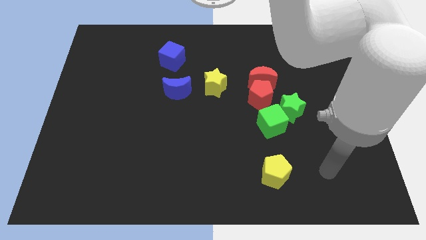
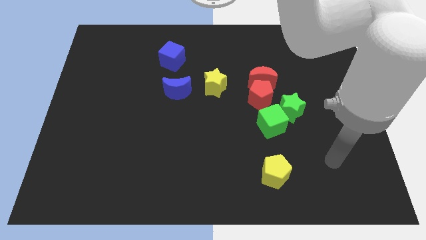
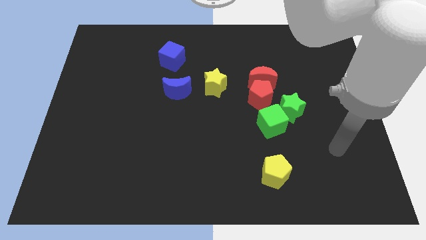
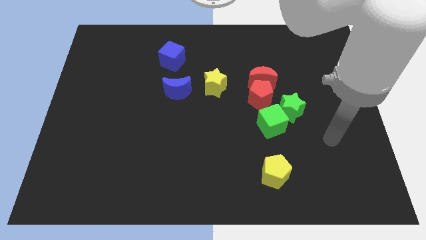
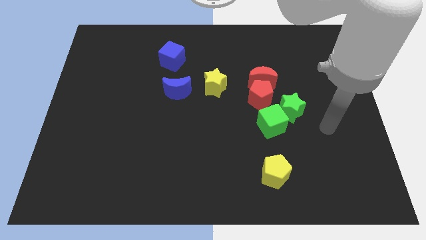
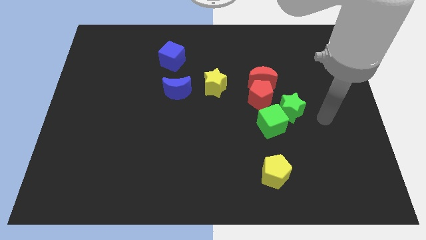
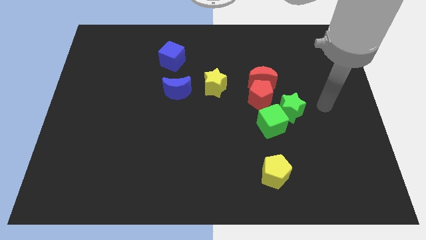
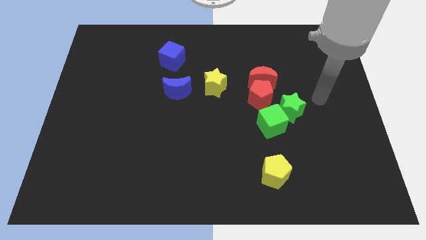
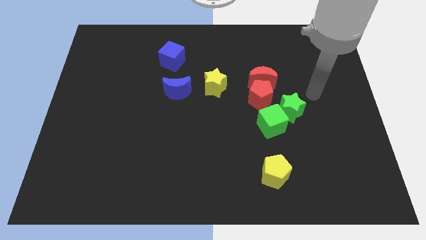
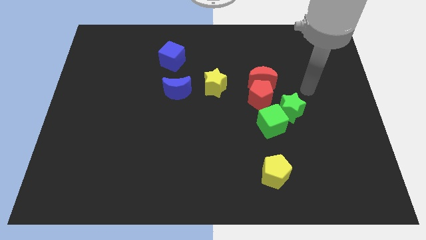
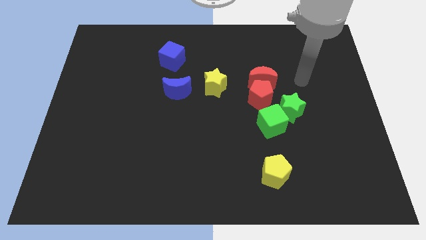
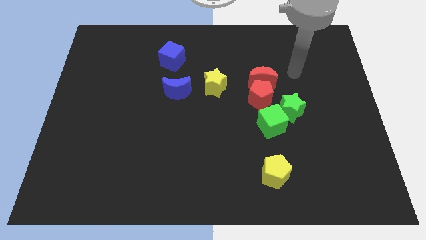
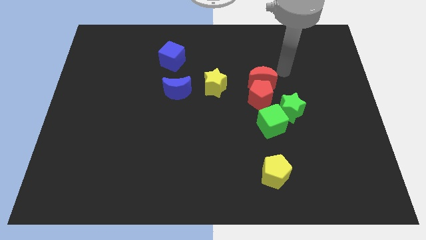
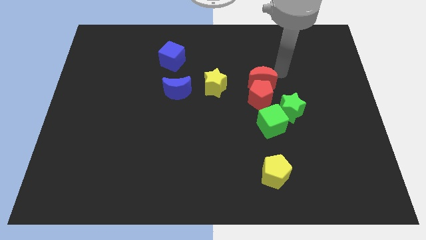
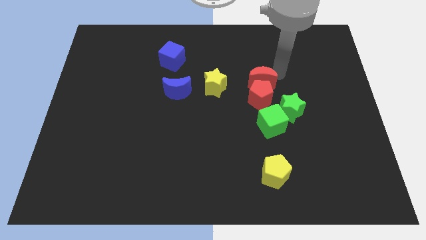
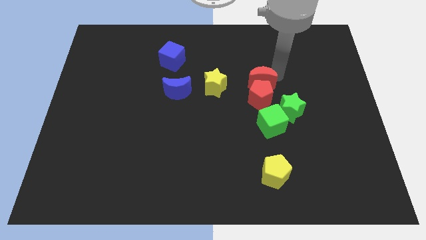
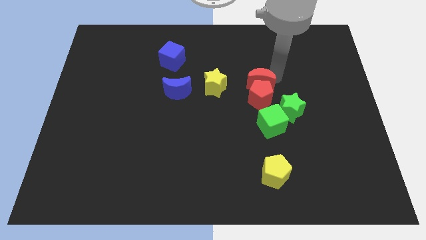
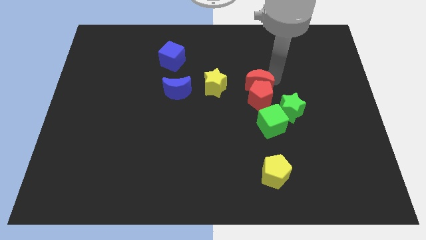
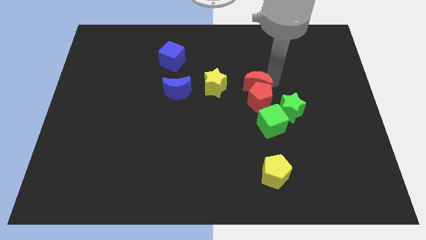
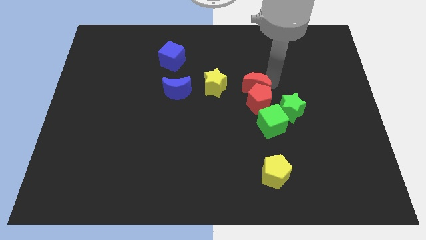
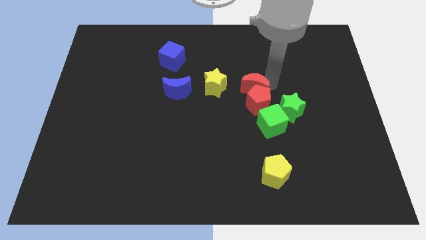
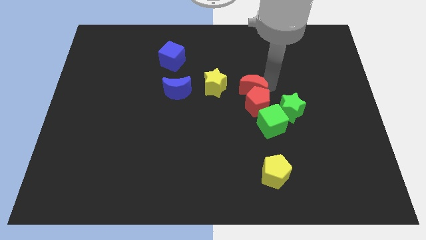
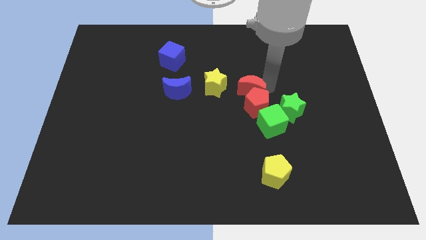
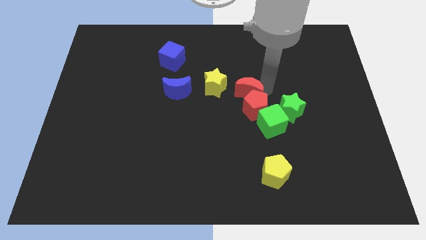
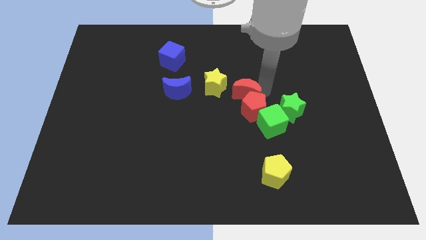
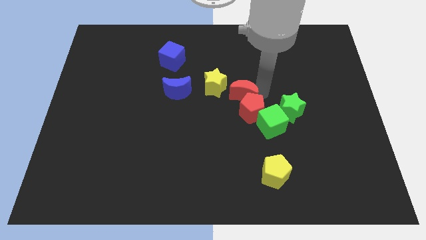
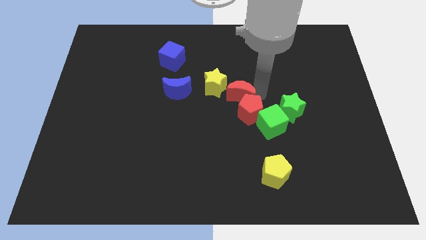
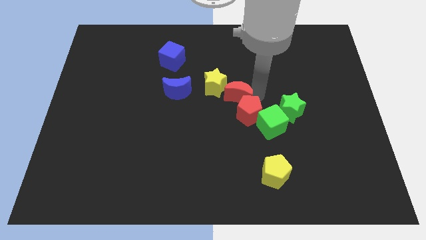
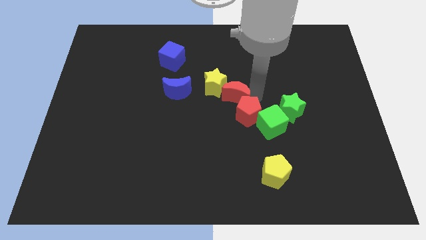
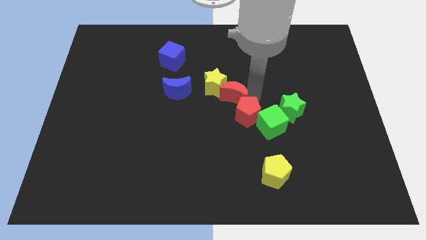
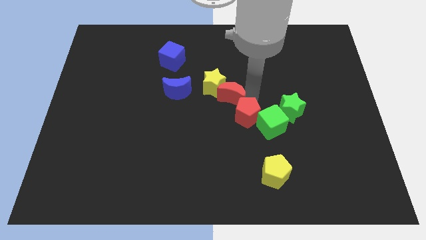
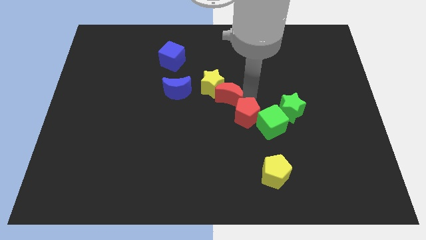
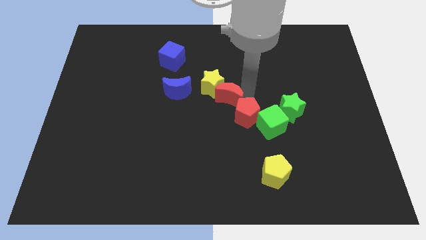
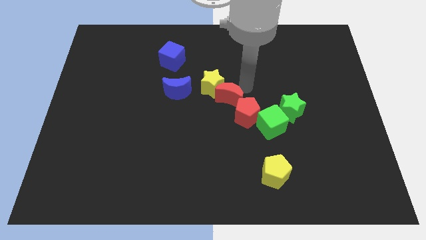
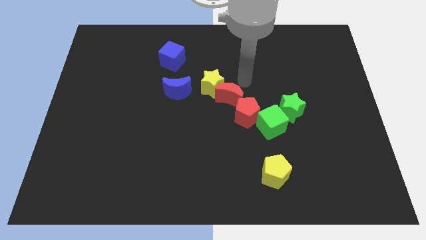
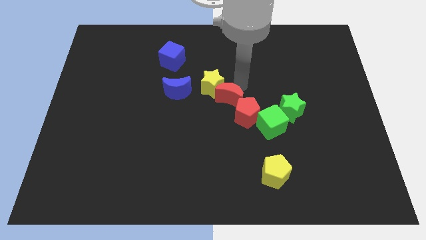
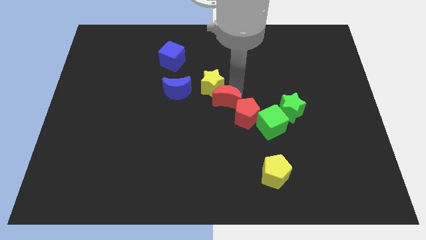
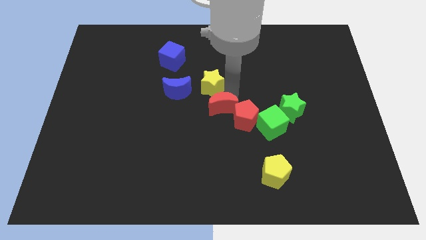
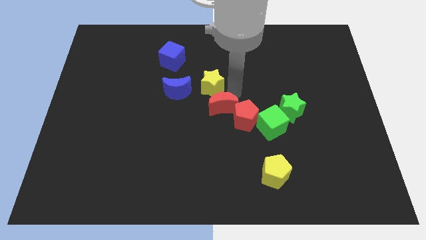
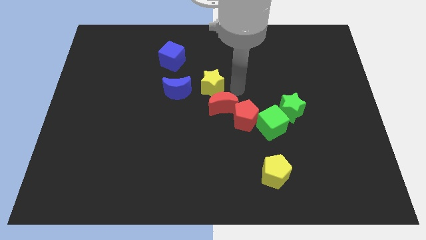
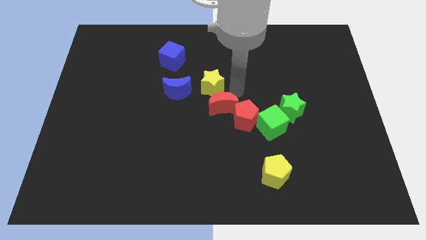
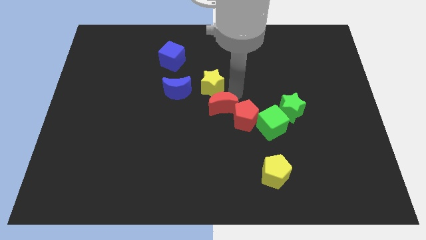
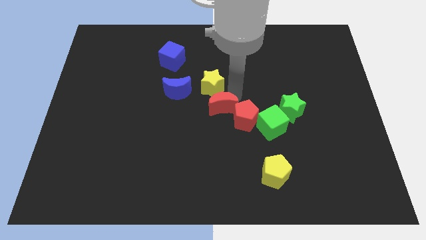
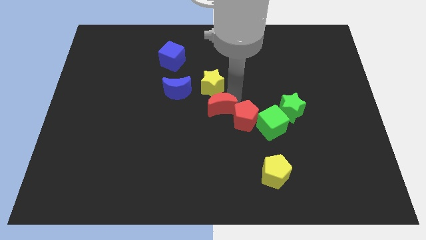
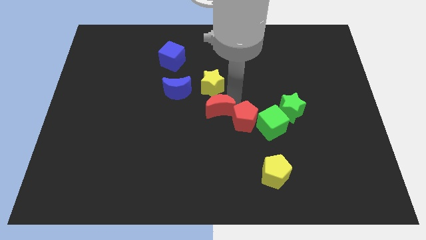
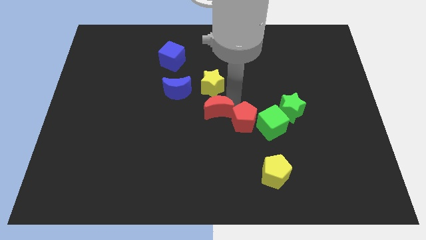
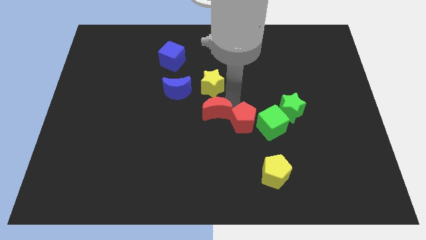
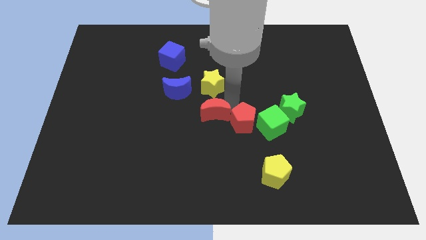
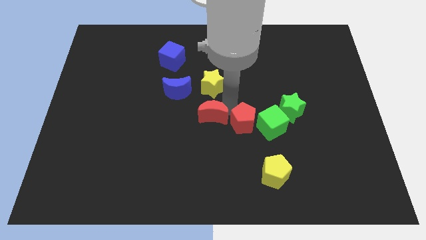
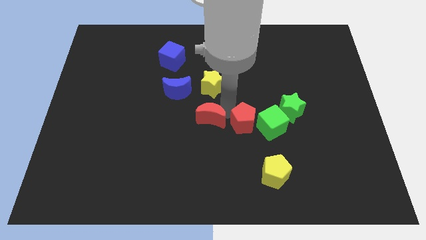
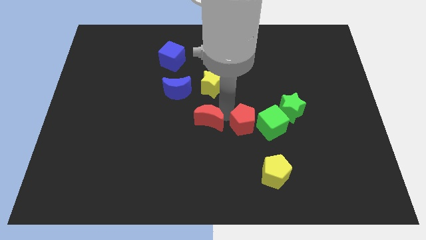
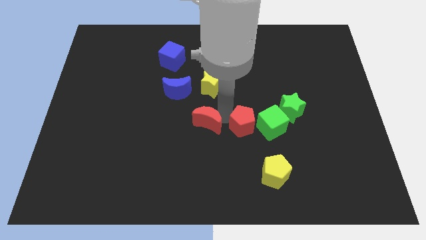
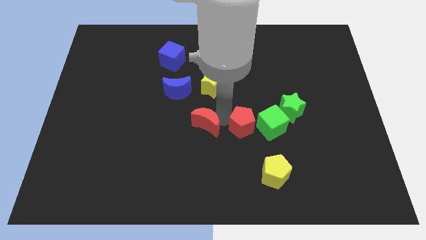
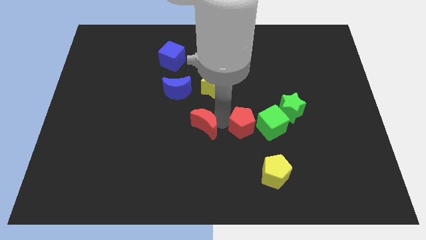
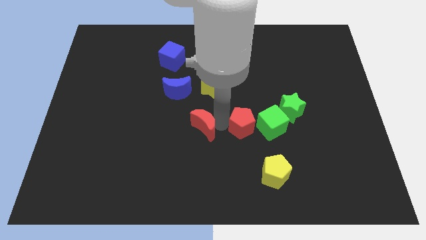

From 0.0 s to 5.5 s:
slide the red moon downwards and to the left

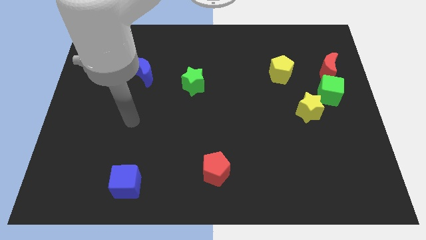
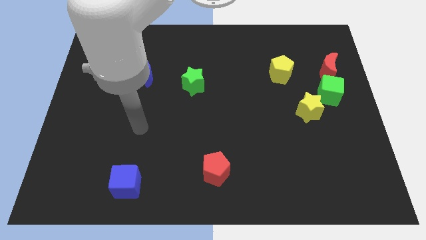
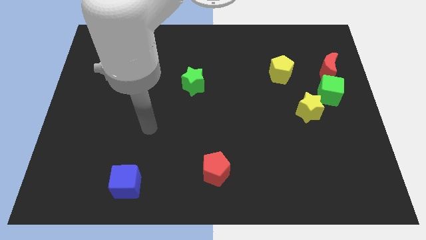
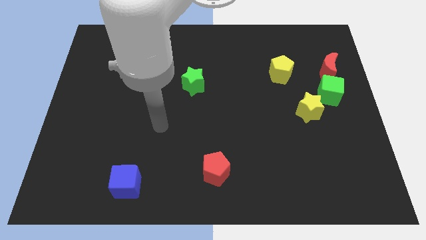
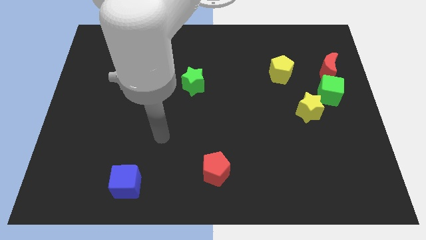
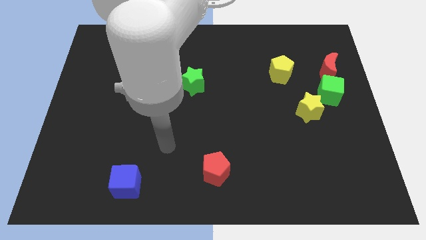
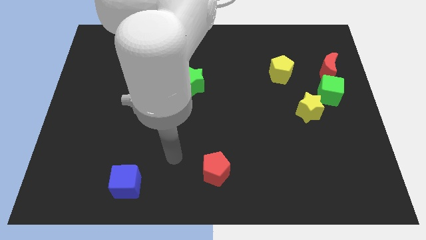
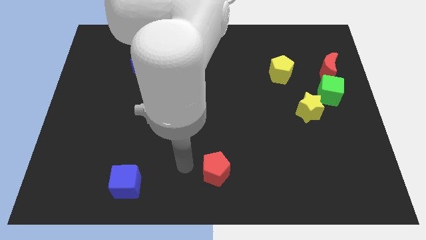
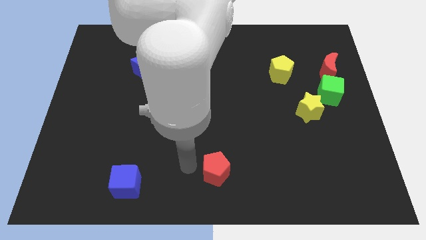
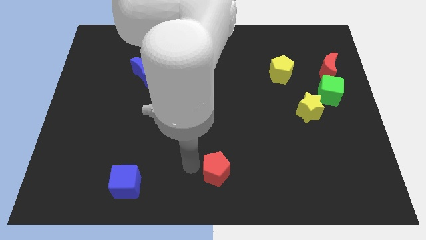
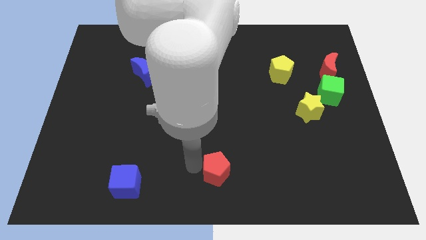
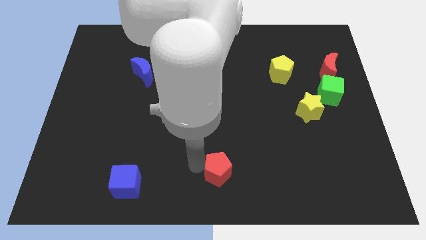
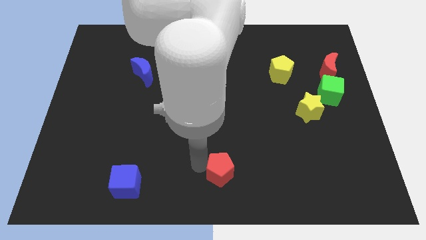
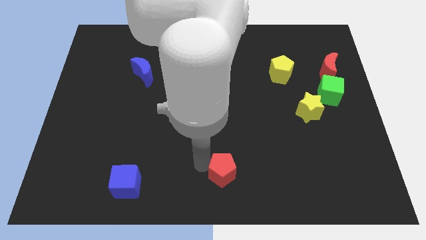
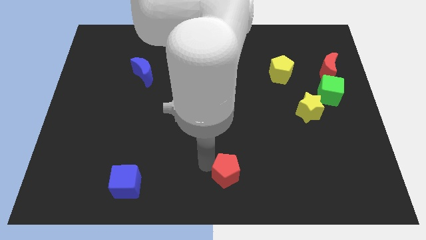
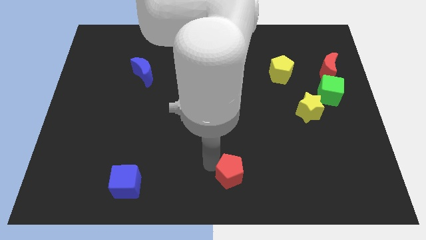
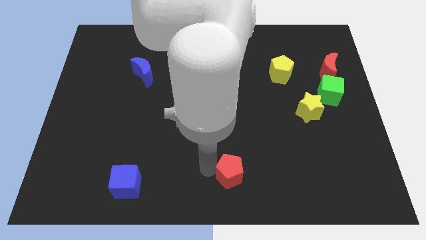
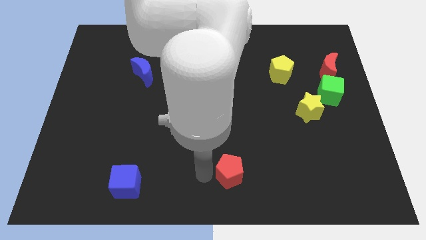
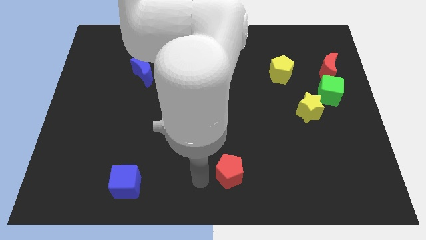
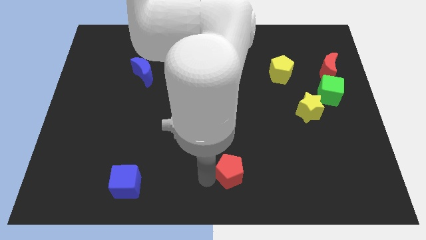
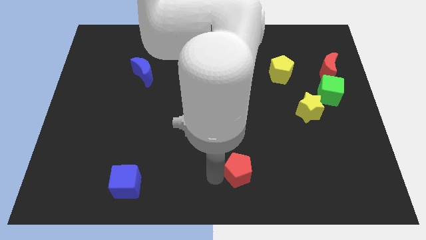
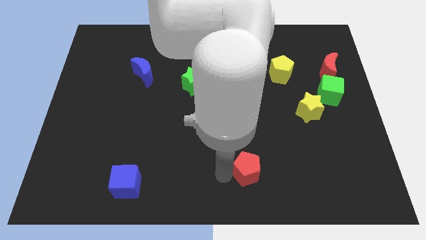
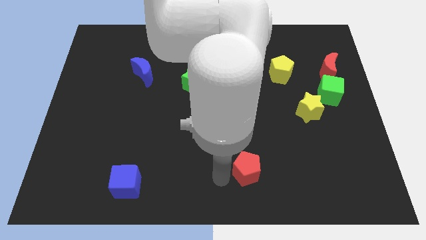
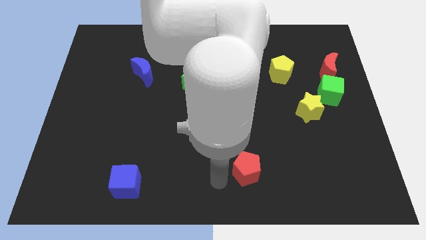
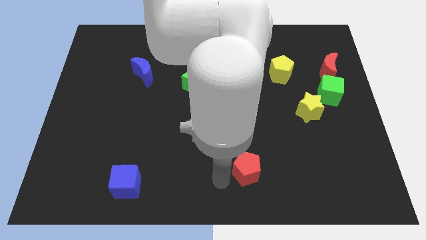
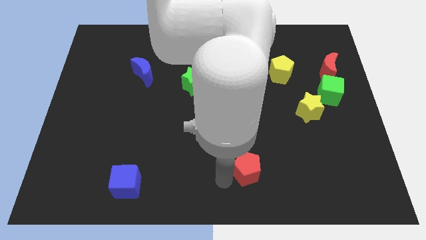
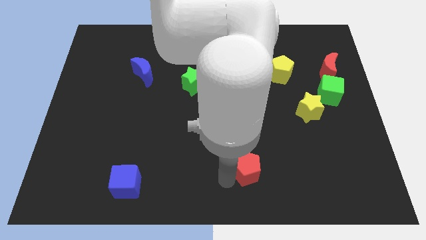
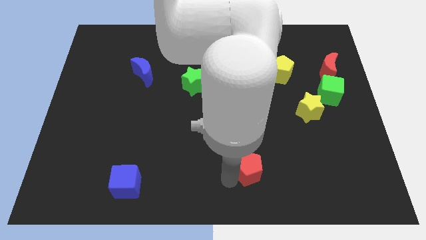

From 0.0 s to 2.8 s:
slightly move the red pentagon right
